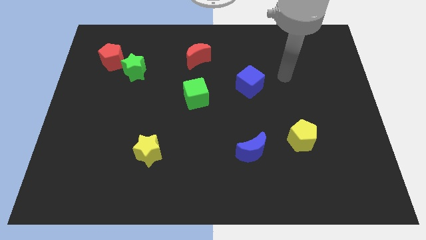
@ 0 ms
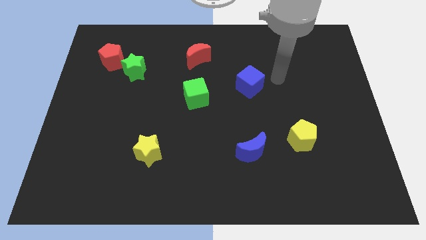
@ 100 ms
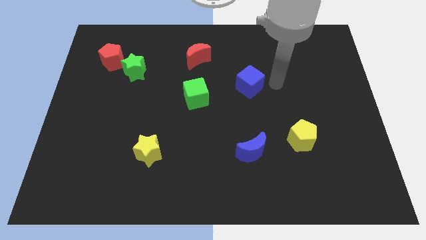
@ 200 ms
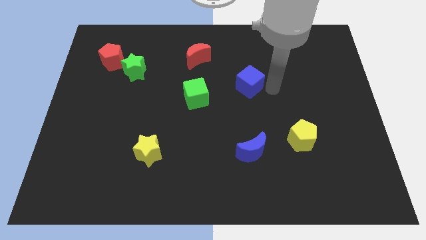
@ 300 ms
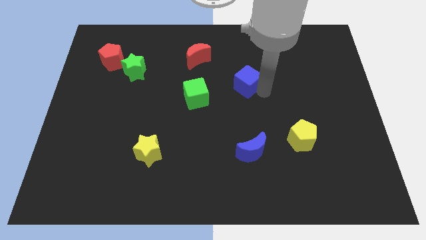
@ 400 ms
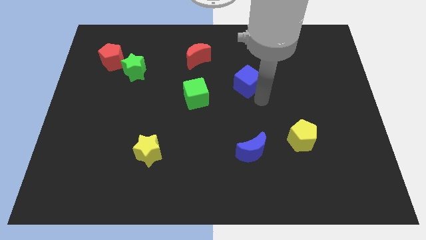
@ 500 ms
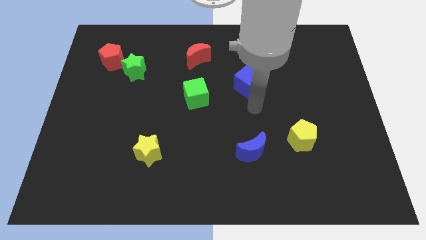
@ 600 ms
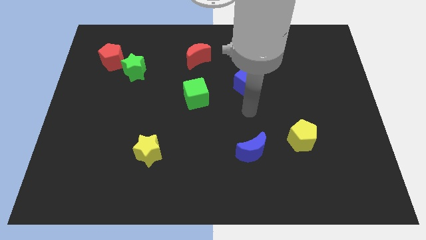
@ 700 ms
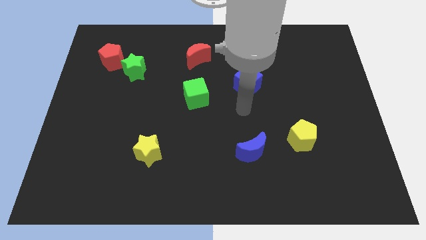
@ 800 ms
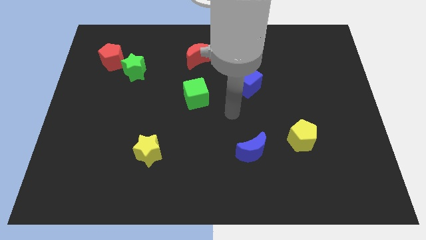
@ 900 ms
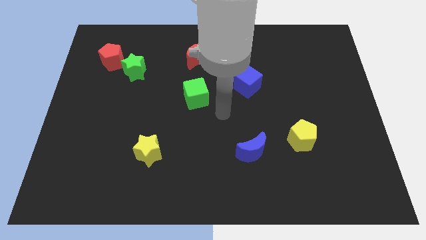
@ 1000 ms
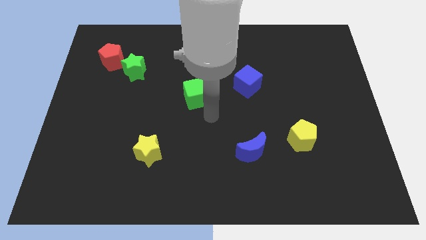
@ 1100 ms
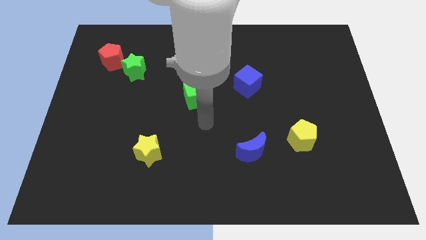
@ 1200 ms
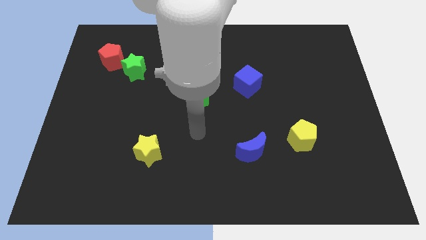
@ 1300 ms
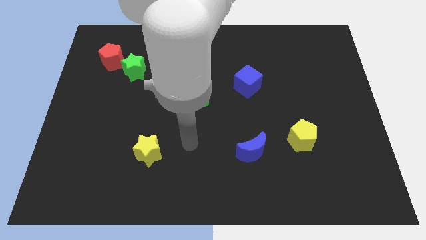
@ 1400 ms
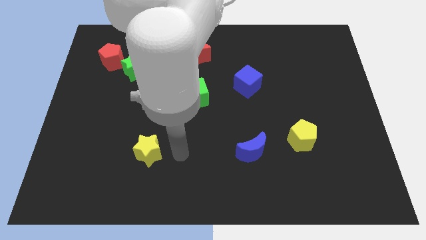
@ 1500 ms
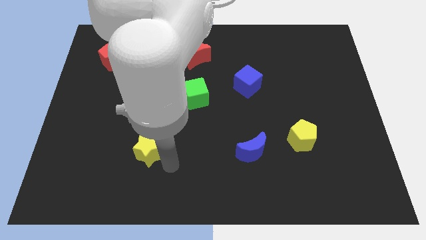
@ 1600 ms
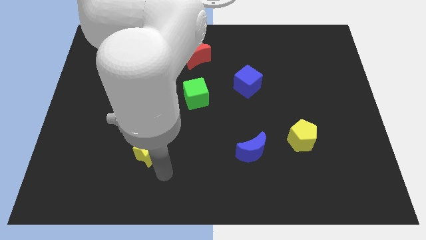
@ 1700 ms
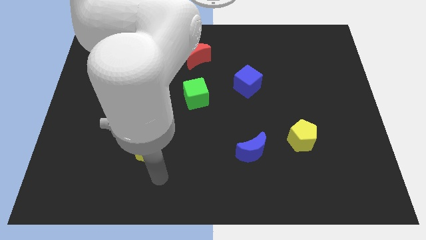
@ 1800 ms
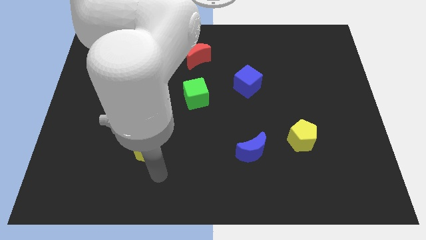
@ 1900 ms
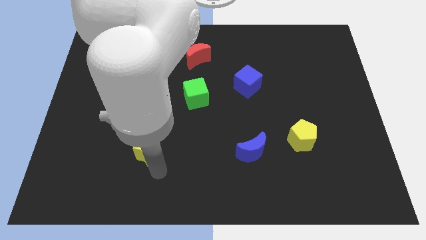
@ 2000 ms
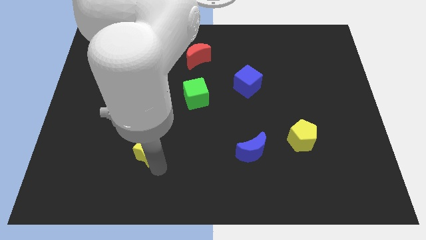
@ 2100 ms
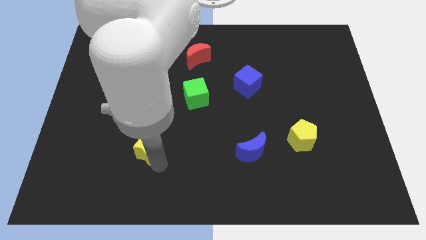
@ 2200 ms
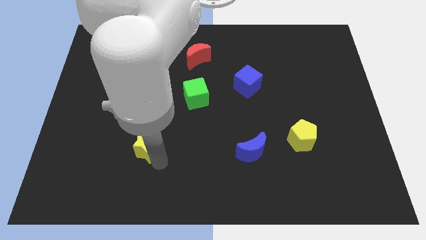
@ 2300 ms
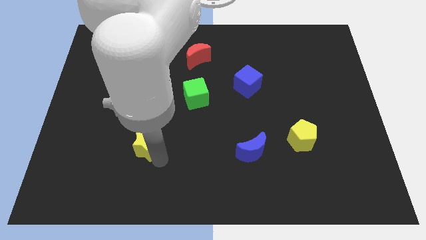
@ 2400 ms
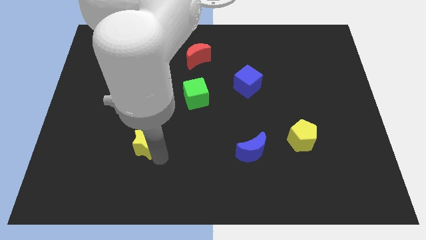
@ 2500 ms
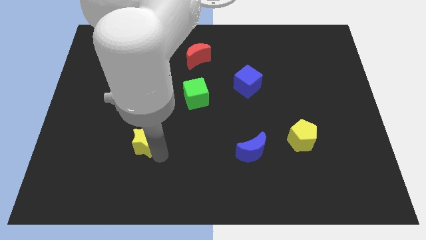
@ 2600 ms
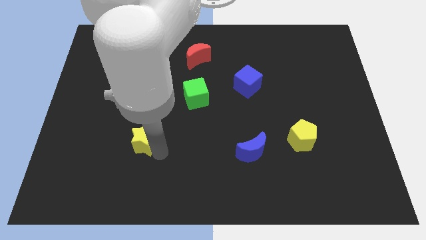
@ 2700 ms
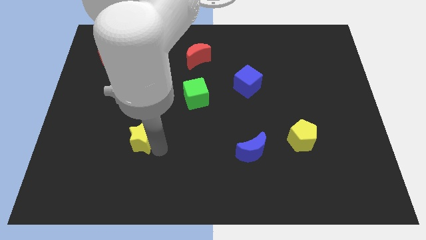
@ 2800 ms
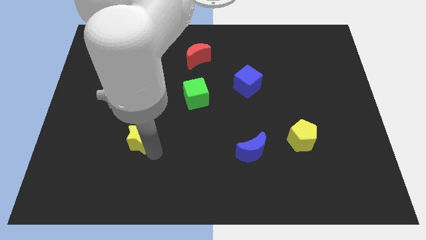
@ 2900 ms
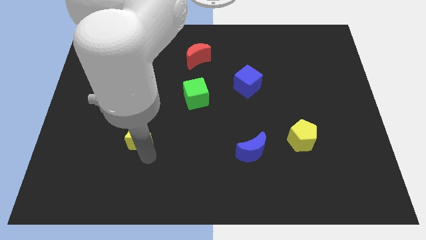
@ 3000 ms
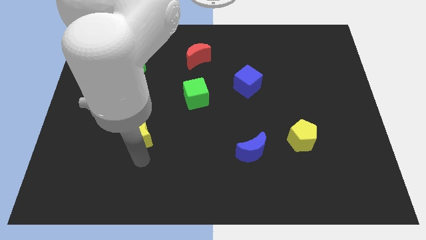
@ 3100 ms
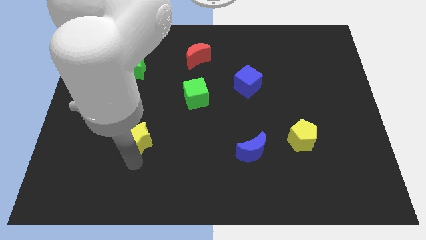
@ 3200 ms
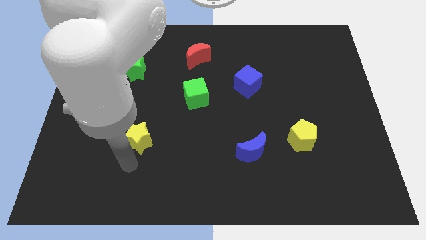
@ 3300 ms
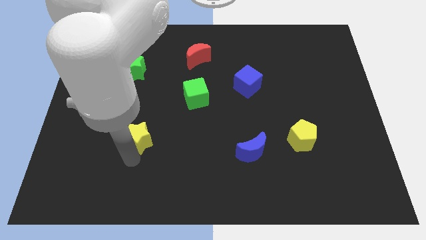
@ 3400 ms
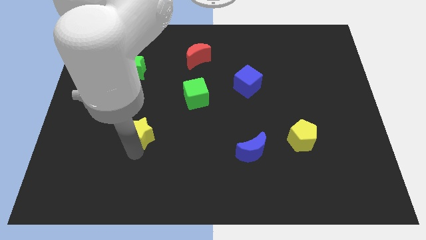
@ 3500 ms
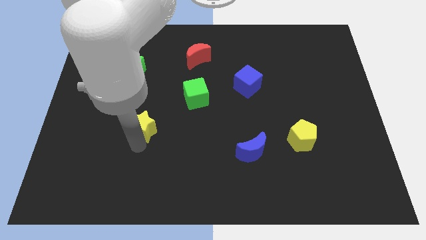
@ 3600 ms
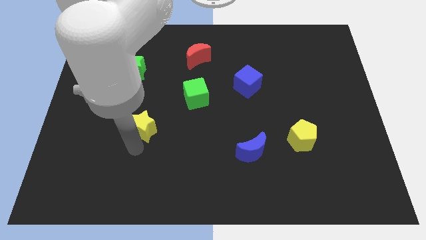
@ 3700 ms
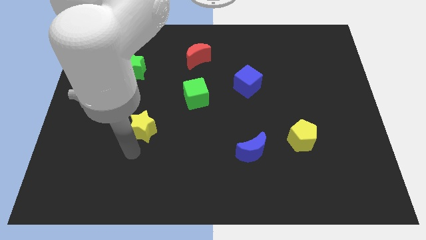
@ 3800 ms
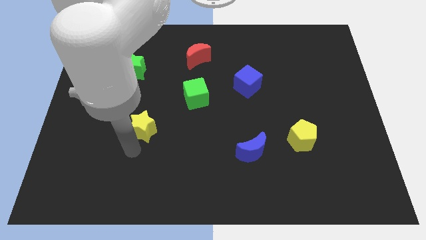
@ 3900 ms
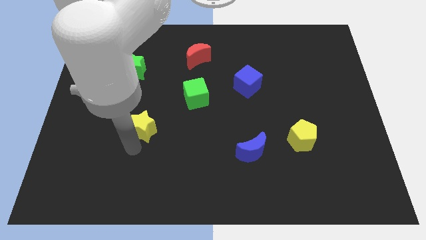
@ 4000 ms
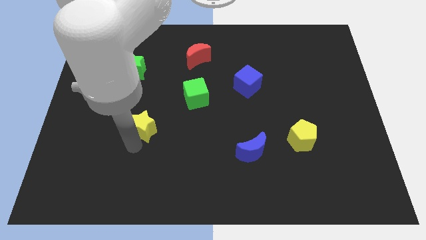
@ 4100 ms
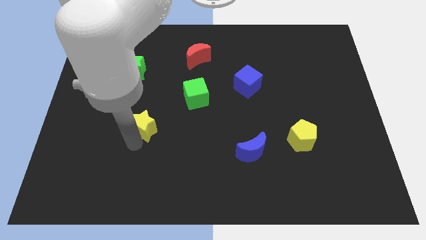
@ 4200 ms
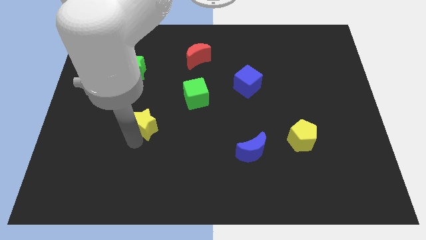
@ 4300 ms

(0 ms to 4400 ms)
slightly move the yellow star upwards

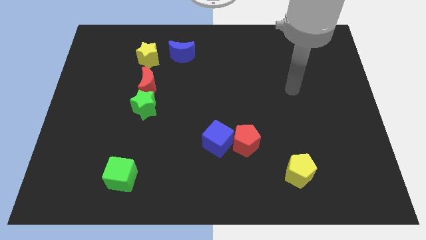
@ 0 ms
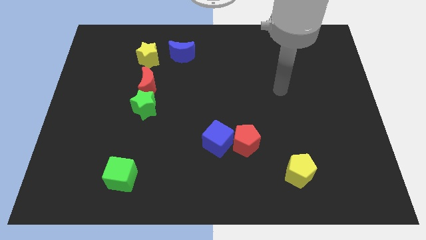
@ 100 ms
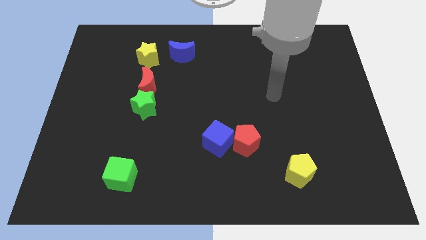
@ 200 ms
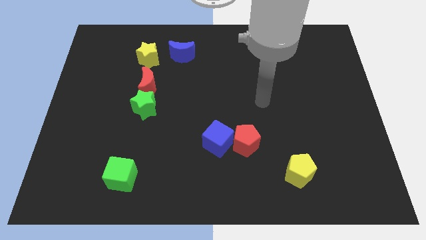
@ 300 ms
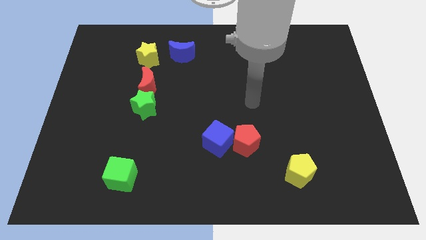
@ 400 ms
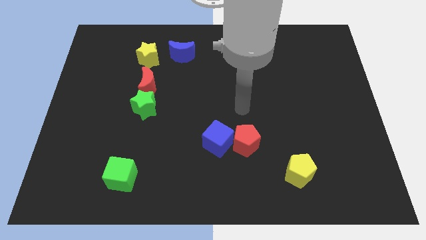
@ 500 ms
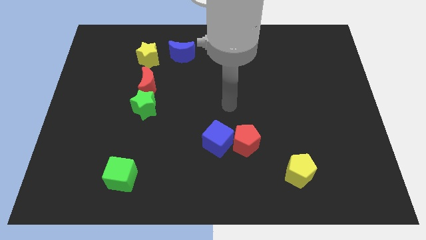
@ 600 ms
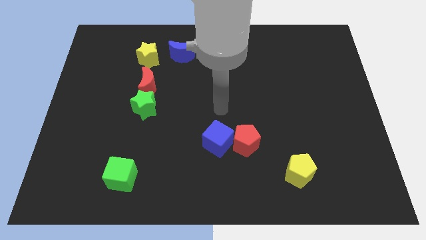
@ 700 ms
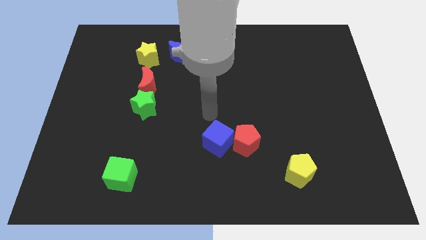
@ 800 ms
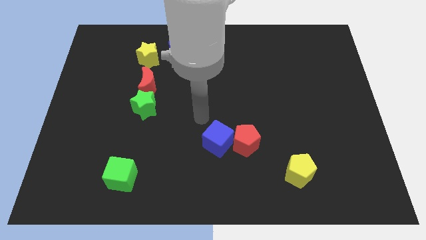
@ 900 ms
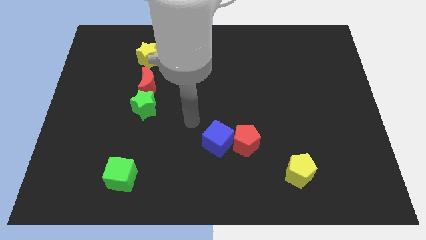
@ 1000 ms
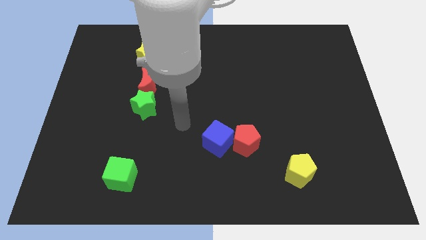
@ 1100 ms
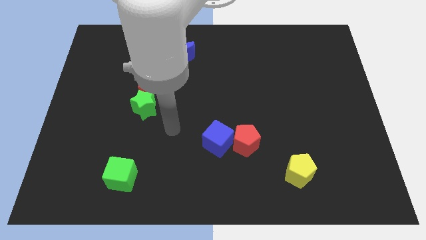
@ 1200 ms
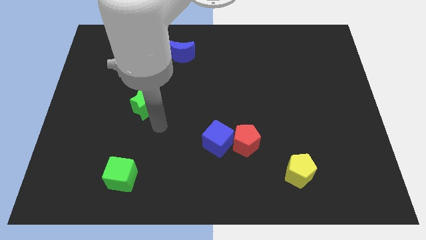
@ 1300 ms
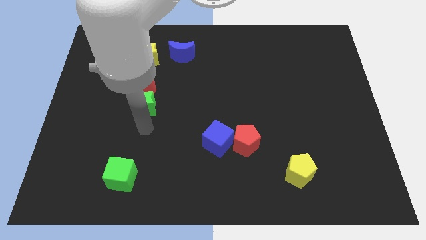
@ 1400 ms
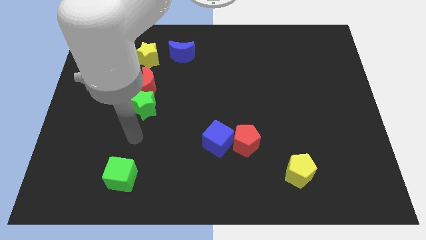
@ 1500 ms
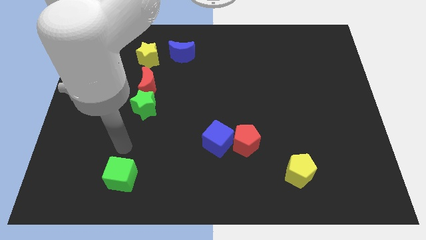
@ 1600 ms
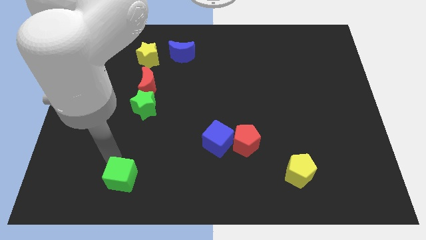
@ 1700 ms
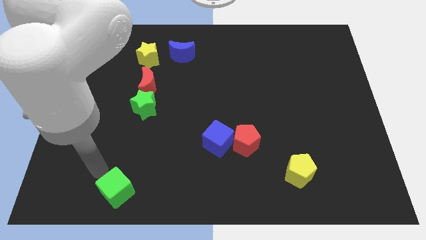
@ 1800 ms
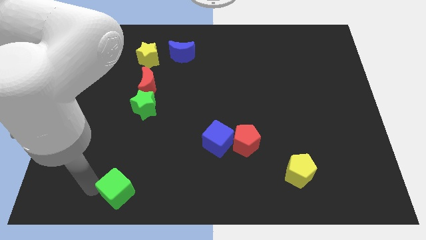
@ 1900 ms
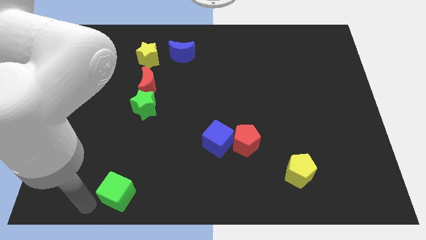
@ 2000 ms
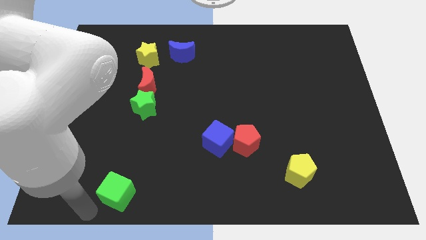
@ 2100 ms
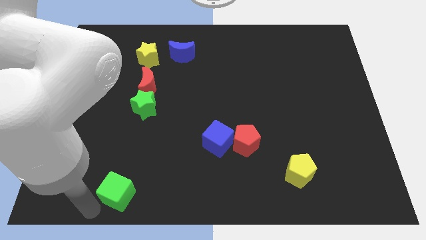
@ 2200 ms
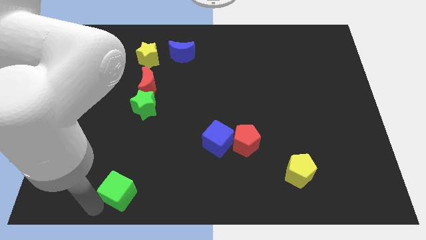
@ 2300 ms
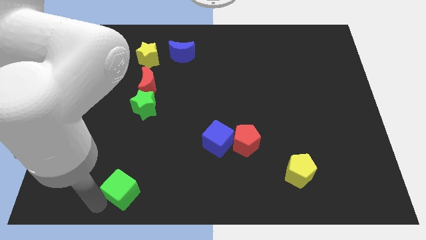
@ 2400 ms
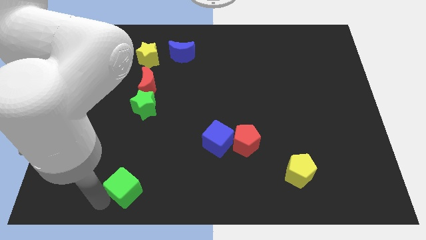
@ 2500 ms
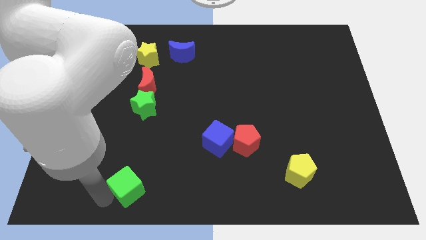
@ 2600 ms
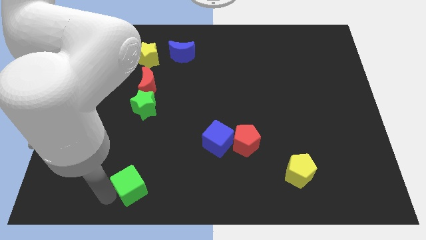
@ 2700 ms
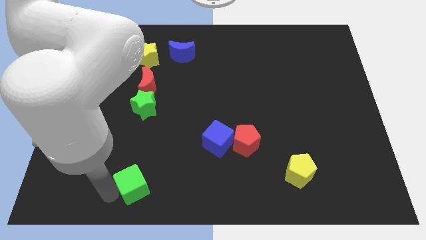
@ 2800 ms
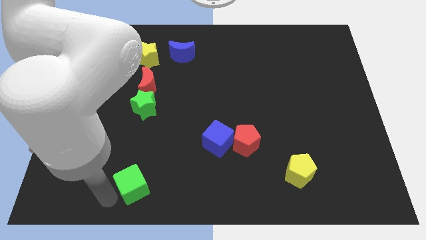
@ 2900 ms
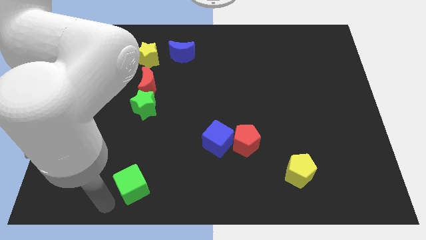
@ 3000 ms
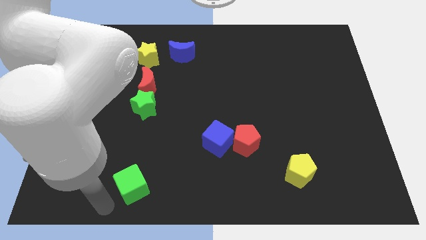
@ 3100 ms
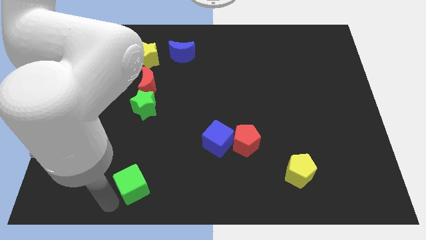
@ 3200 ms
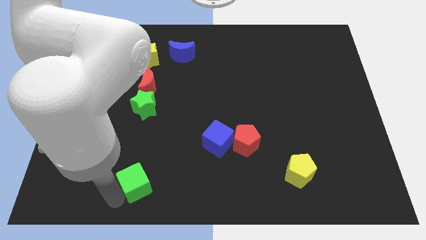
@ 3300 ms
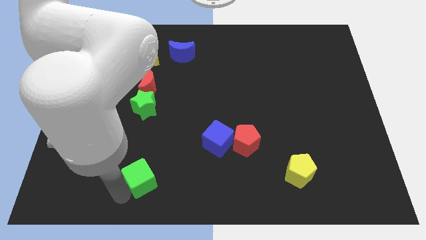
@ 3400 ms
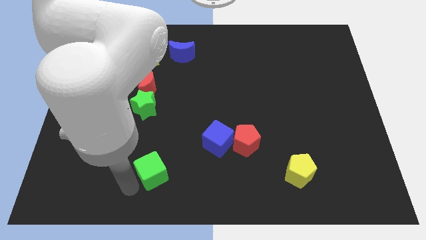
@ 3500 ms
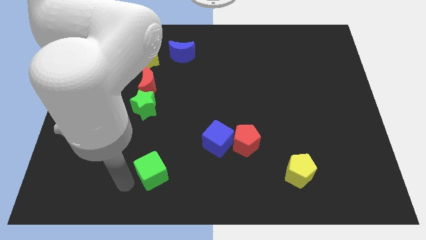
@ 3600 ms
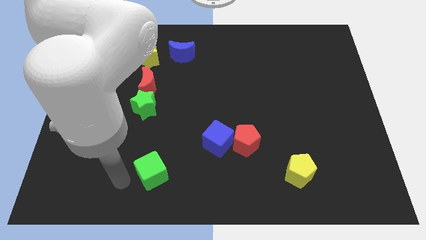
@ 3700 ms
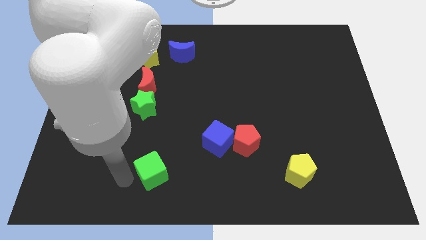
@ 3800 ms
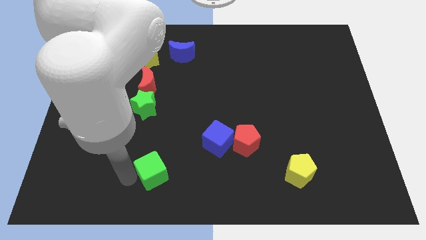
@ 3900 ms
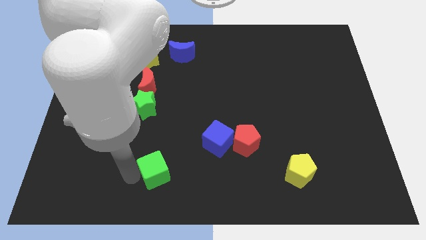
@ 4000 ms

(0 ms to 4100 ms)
slide the green cube to the right slightly
